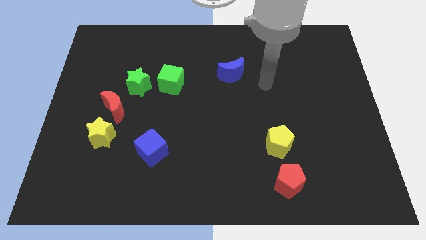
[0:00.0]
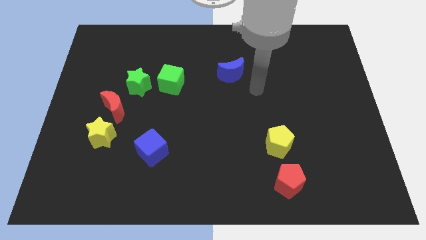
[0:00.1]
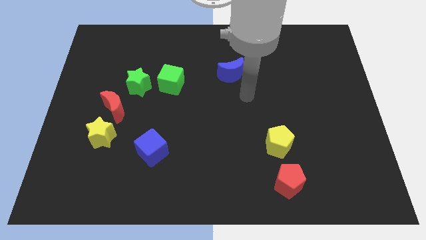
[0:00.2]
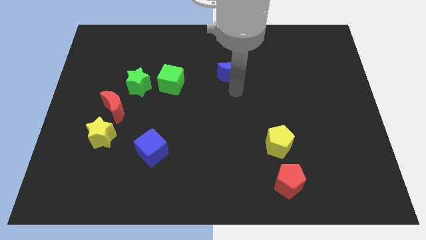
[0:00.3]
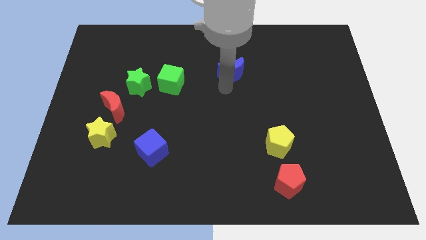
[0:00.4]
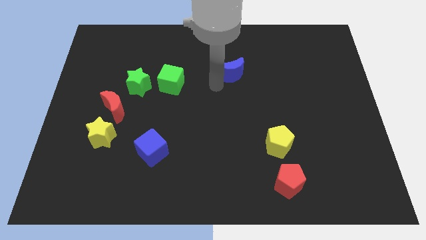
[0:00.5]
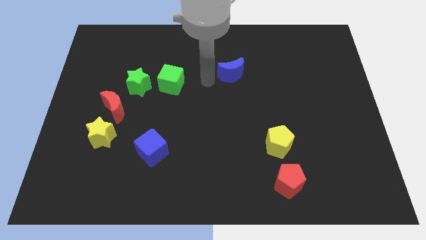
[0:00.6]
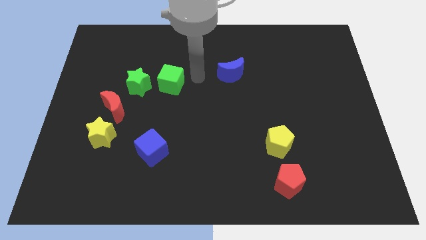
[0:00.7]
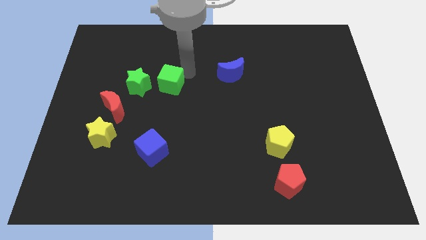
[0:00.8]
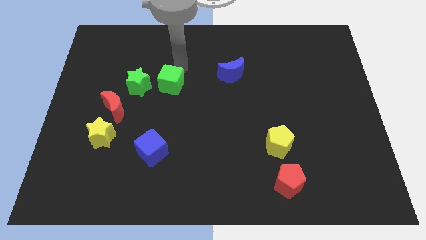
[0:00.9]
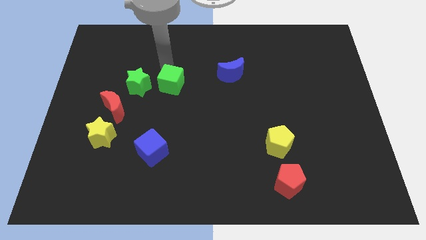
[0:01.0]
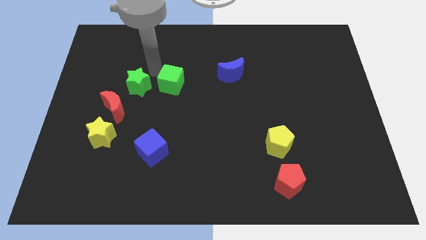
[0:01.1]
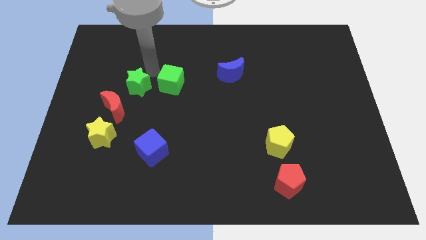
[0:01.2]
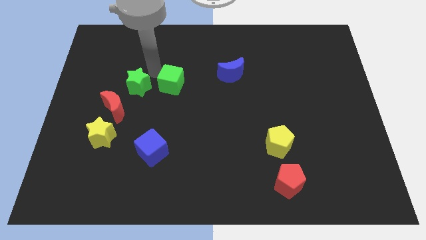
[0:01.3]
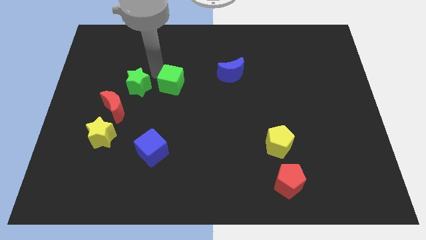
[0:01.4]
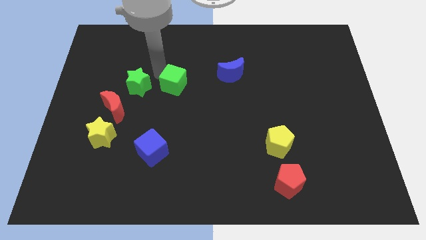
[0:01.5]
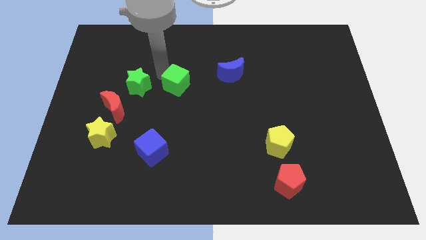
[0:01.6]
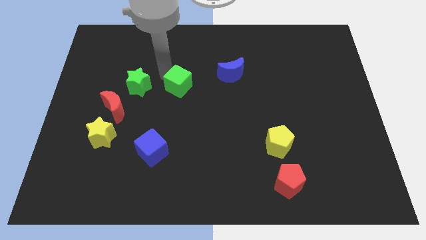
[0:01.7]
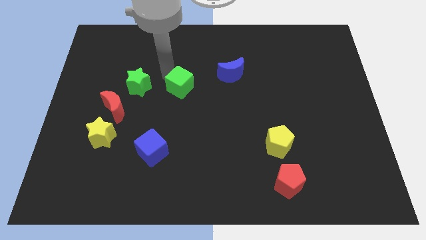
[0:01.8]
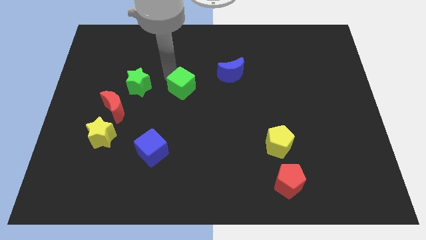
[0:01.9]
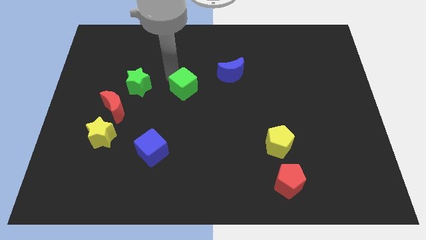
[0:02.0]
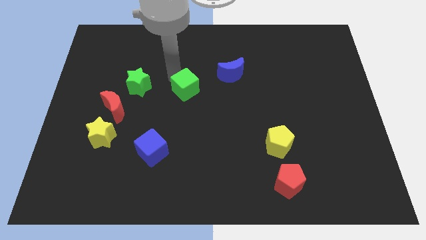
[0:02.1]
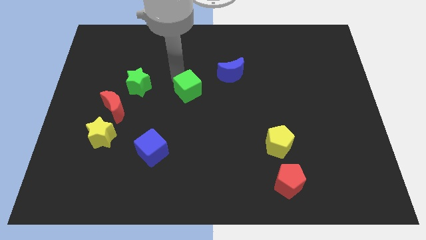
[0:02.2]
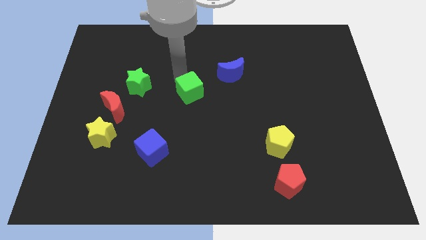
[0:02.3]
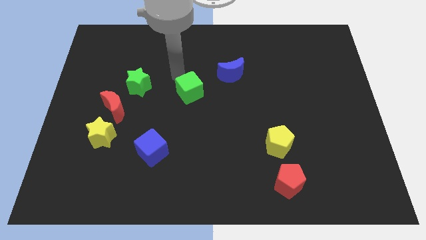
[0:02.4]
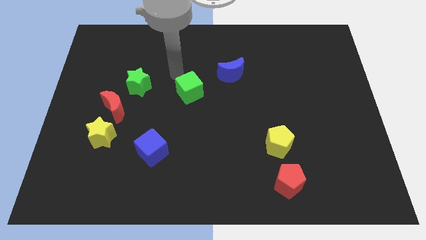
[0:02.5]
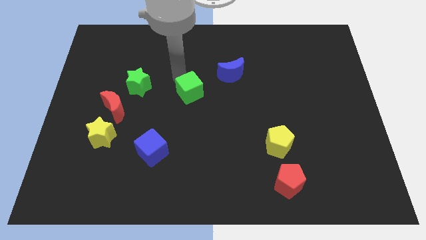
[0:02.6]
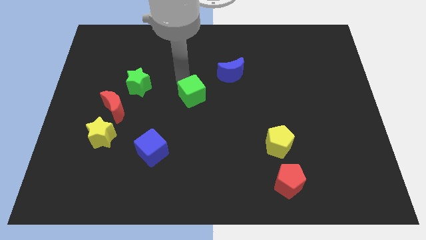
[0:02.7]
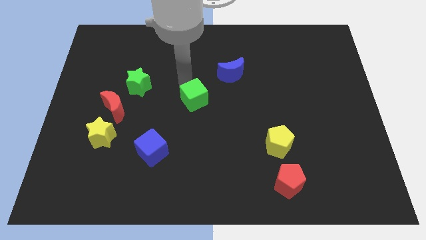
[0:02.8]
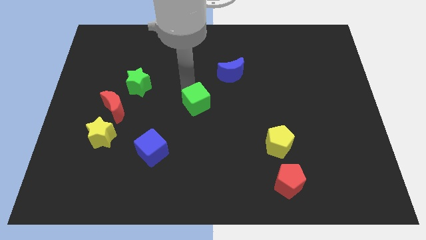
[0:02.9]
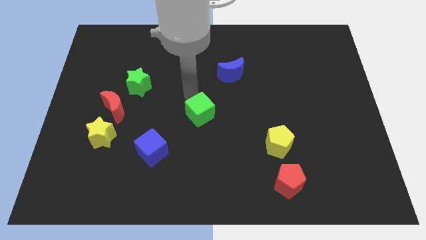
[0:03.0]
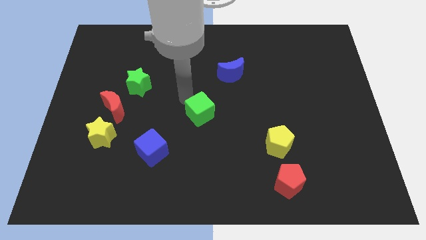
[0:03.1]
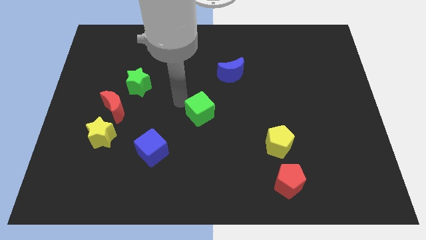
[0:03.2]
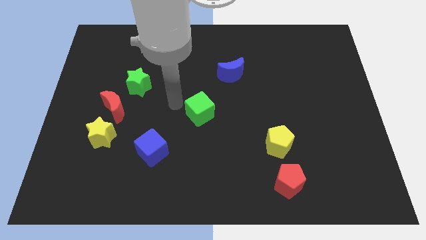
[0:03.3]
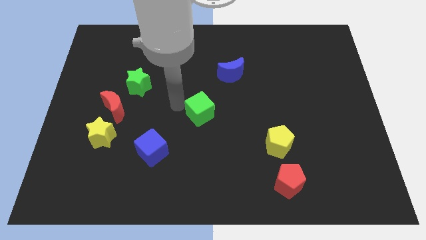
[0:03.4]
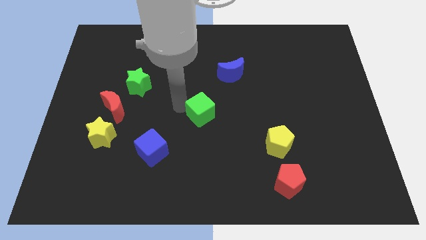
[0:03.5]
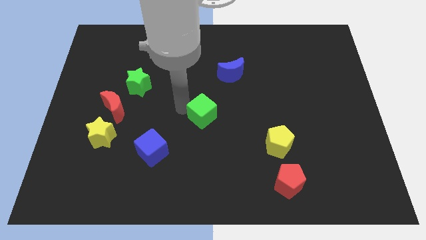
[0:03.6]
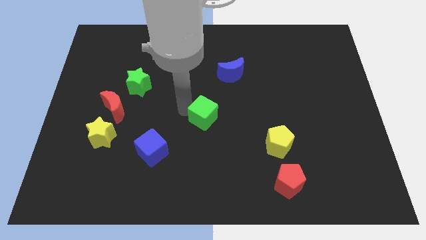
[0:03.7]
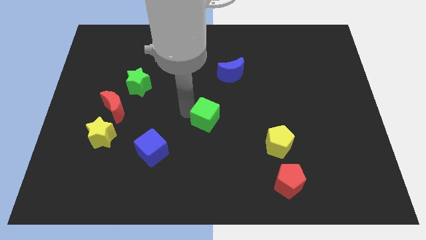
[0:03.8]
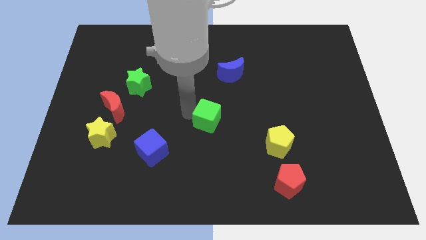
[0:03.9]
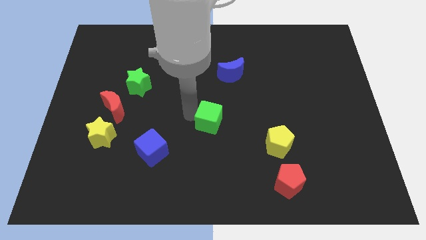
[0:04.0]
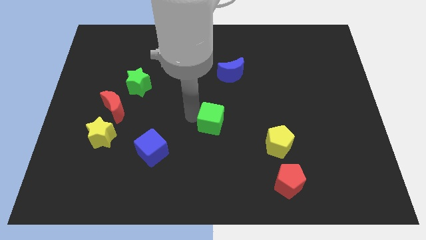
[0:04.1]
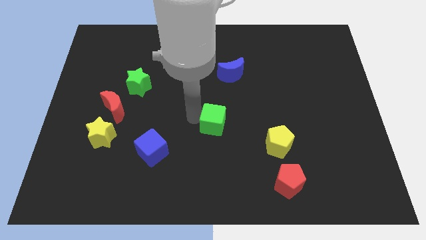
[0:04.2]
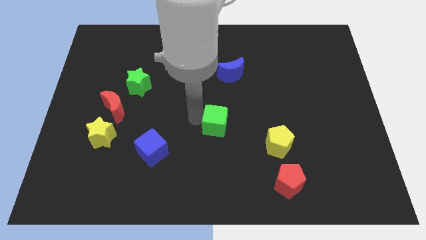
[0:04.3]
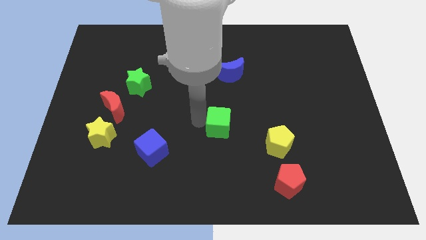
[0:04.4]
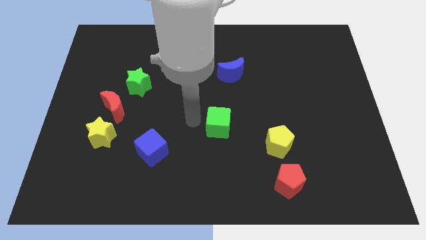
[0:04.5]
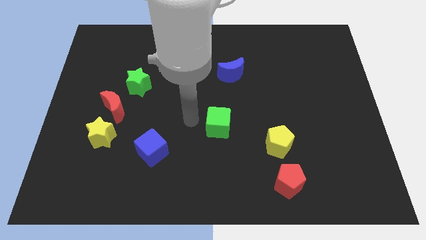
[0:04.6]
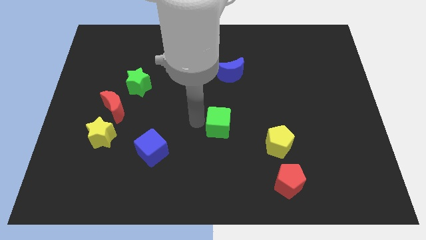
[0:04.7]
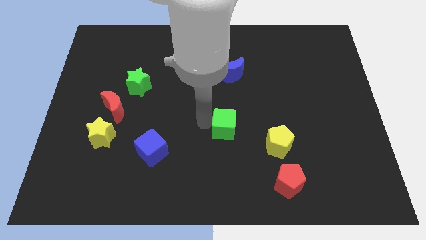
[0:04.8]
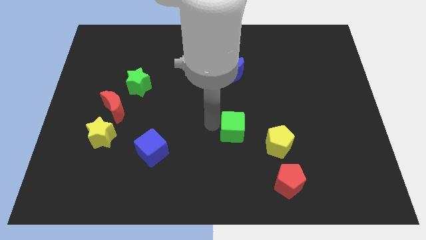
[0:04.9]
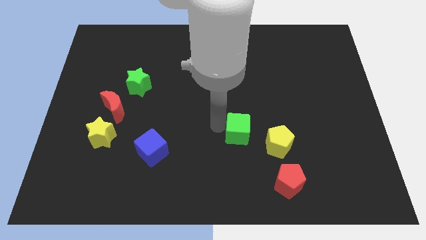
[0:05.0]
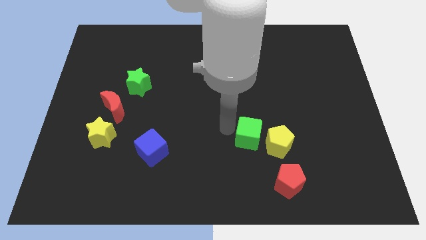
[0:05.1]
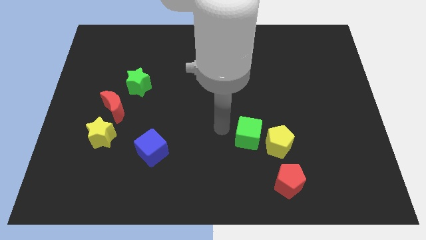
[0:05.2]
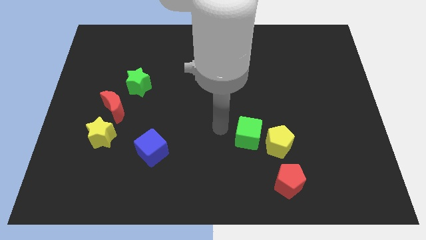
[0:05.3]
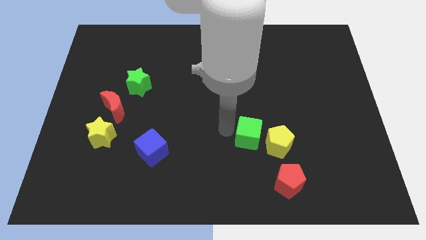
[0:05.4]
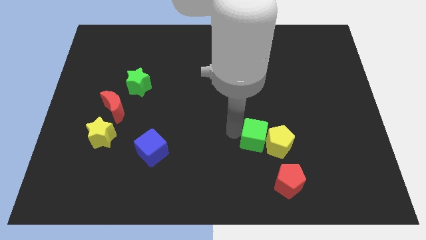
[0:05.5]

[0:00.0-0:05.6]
move the green cube to the yellow pentagon

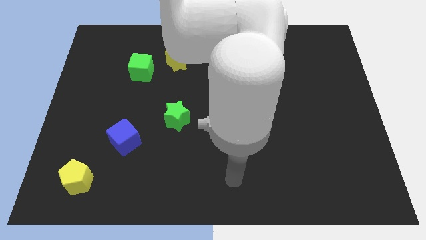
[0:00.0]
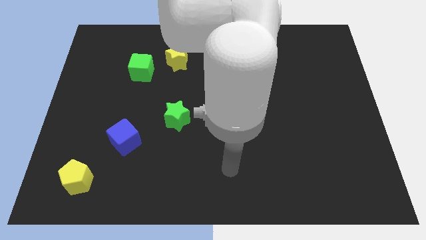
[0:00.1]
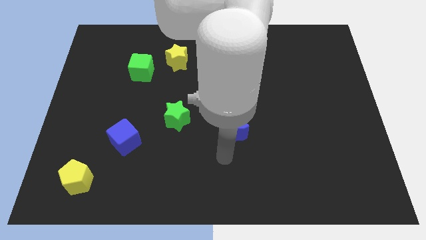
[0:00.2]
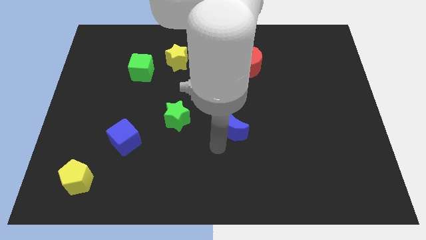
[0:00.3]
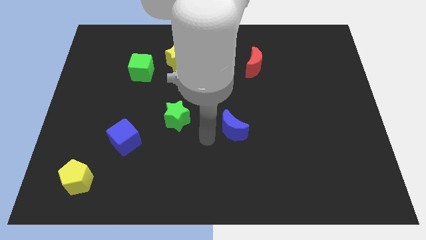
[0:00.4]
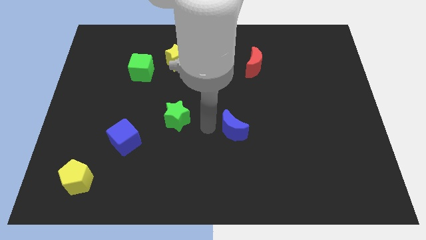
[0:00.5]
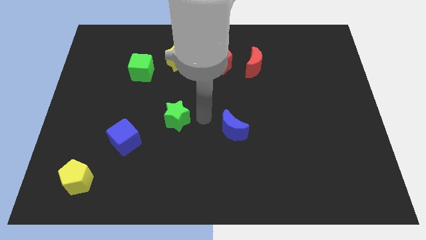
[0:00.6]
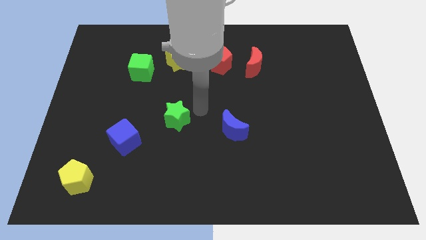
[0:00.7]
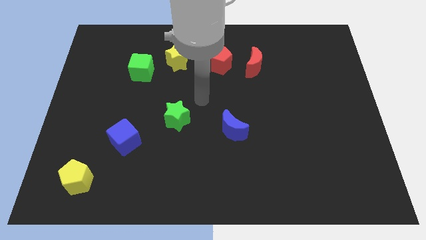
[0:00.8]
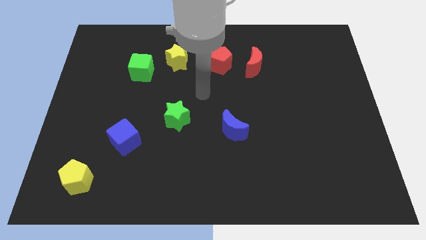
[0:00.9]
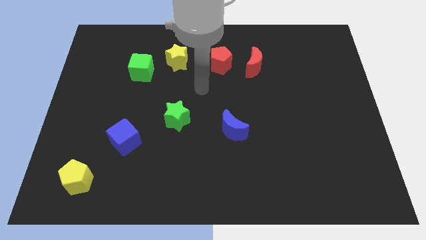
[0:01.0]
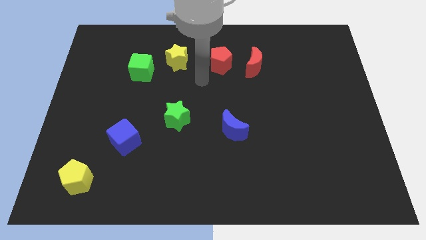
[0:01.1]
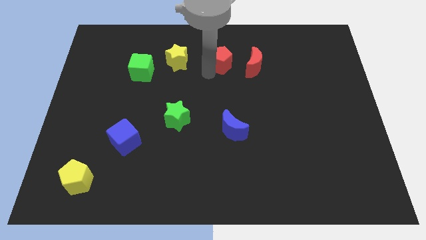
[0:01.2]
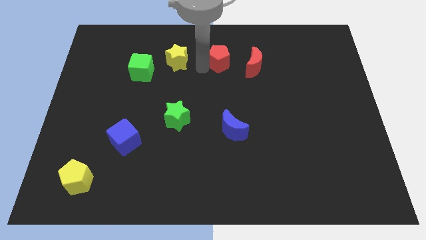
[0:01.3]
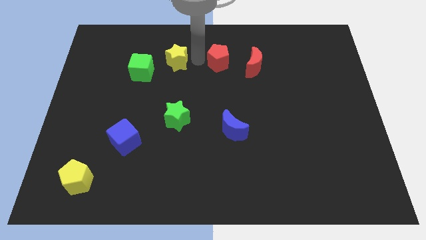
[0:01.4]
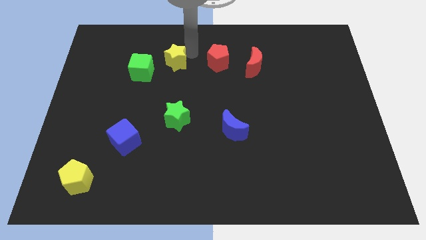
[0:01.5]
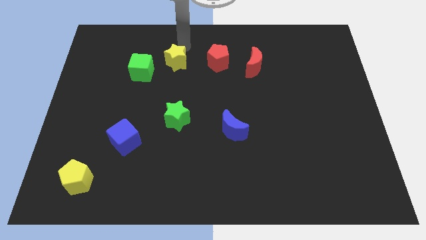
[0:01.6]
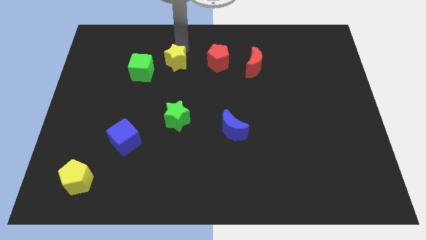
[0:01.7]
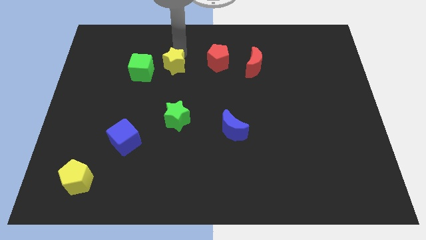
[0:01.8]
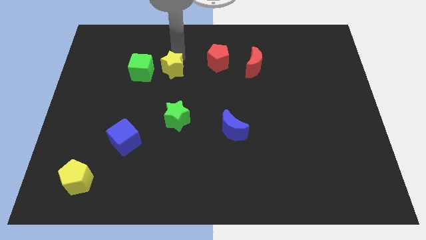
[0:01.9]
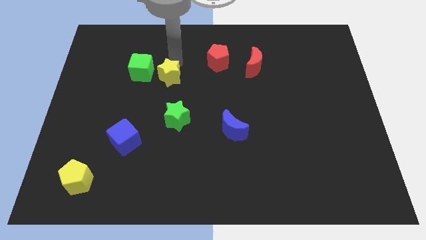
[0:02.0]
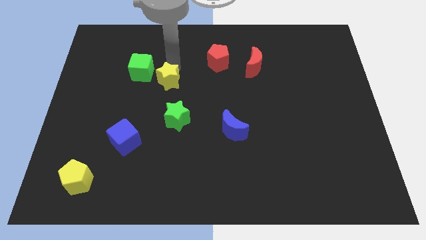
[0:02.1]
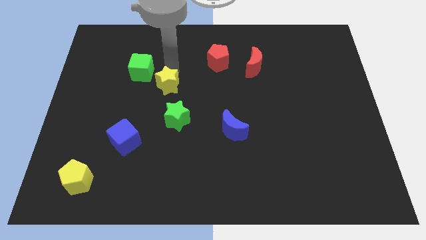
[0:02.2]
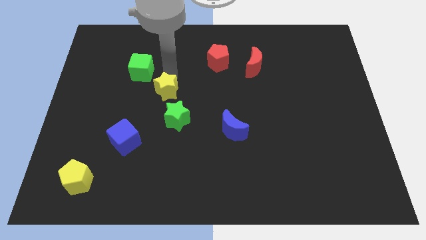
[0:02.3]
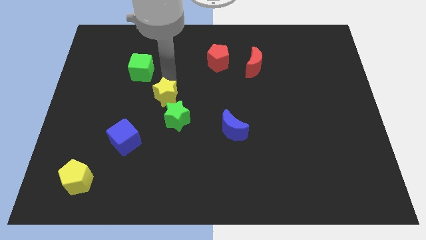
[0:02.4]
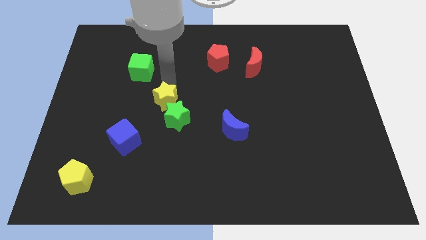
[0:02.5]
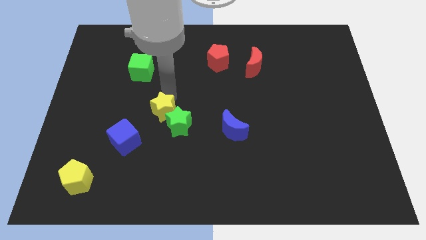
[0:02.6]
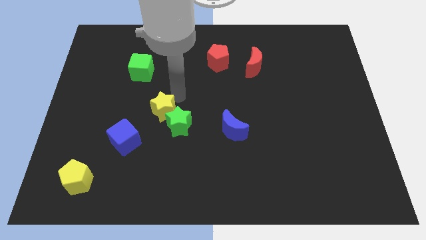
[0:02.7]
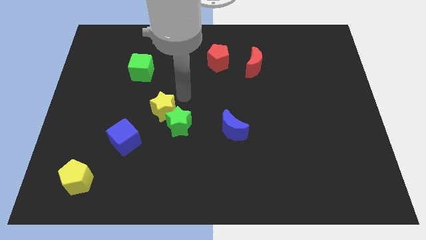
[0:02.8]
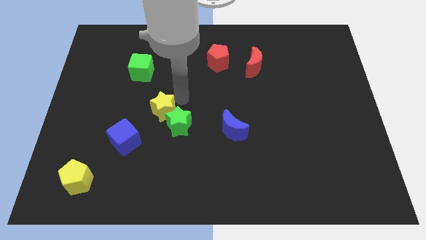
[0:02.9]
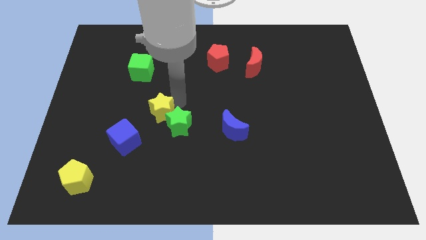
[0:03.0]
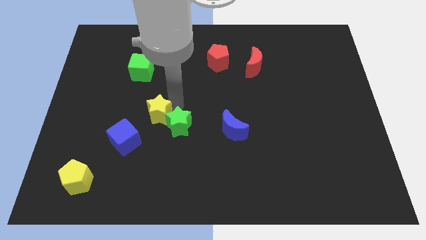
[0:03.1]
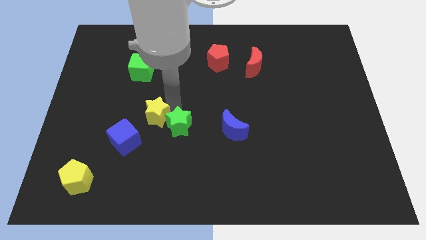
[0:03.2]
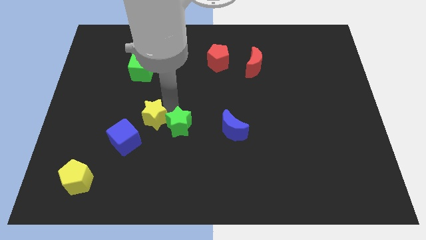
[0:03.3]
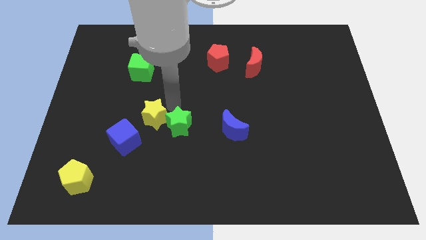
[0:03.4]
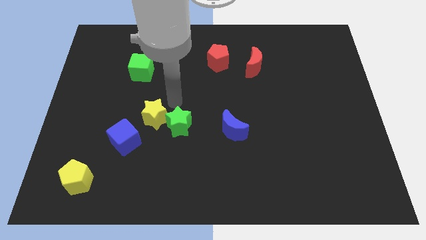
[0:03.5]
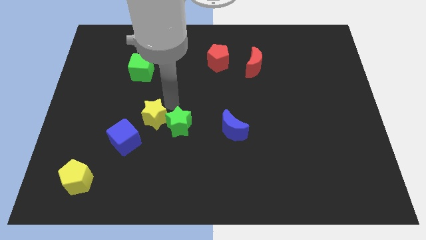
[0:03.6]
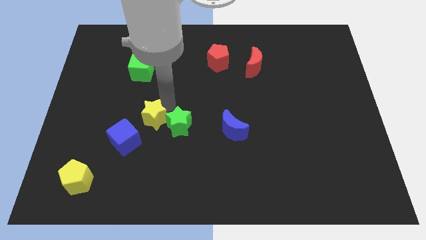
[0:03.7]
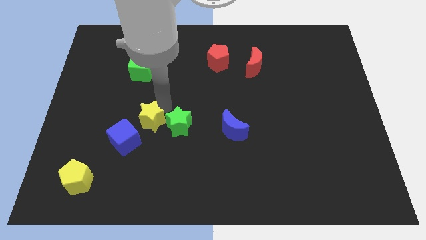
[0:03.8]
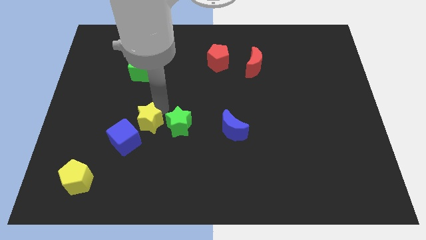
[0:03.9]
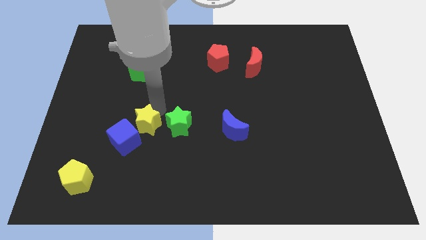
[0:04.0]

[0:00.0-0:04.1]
push the yellow star next to the blue cube
